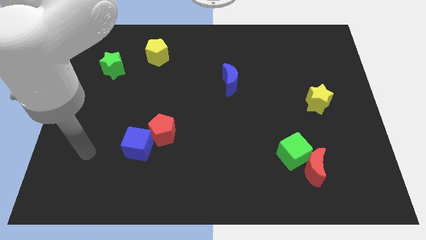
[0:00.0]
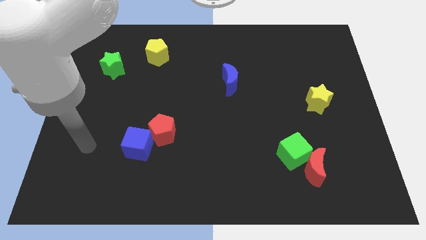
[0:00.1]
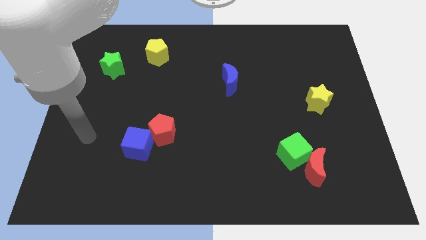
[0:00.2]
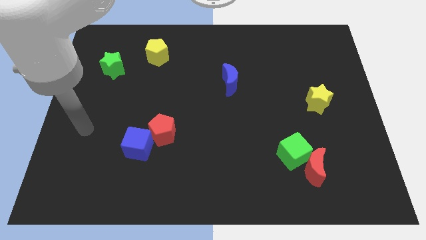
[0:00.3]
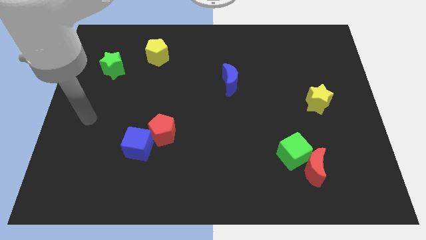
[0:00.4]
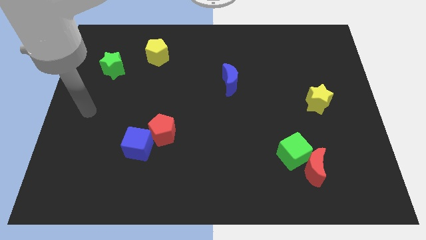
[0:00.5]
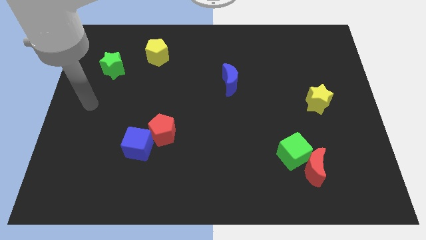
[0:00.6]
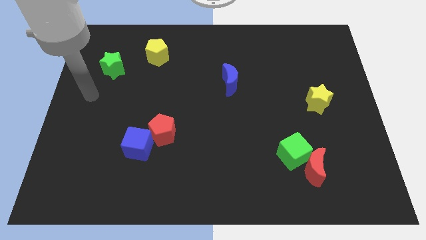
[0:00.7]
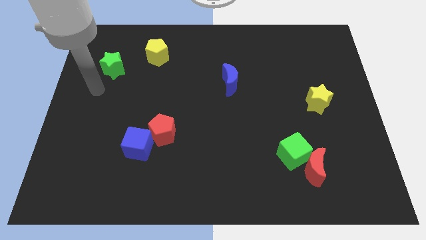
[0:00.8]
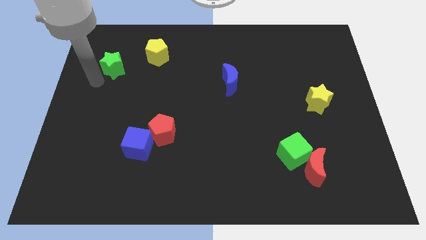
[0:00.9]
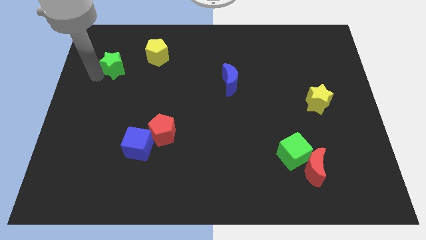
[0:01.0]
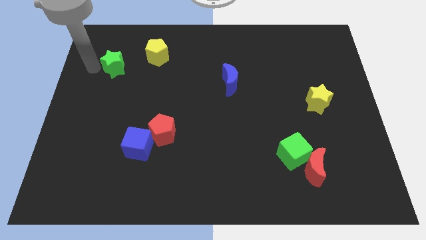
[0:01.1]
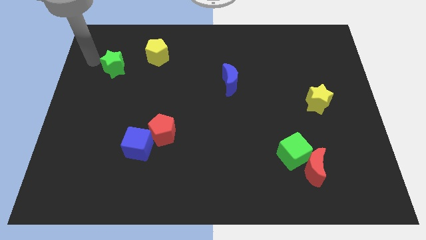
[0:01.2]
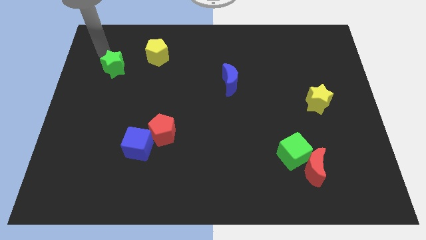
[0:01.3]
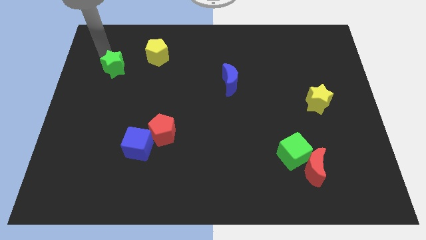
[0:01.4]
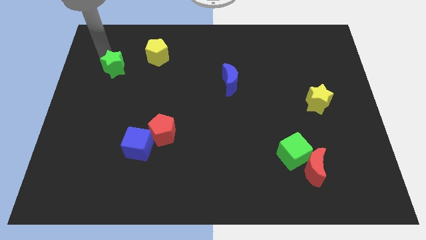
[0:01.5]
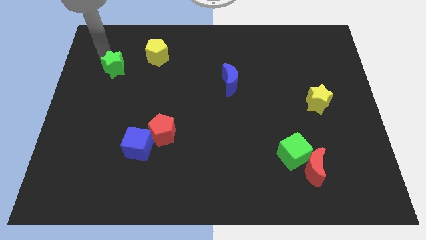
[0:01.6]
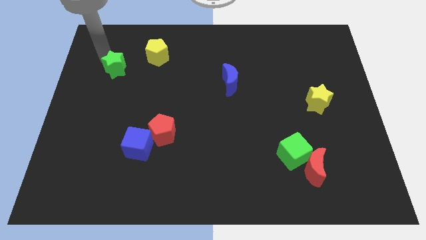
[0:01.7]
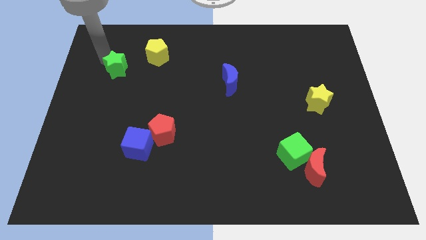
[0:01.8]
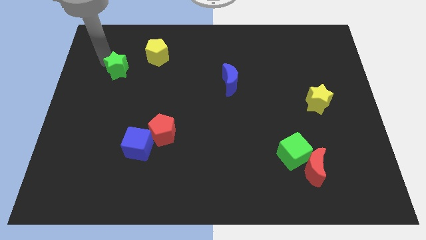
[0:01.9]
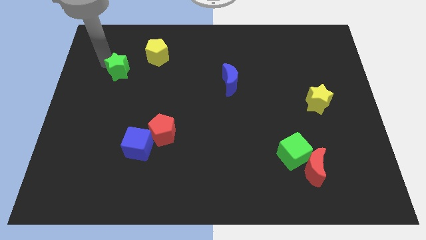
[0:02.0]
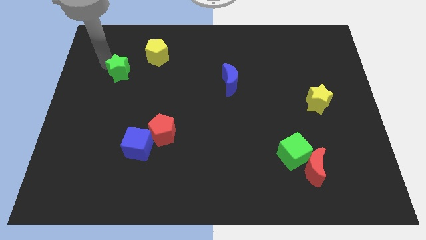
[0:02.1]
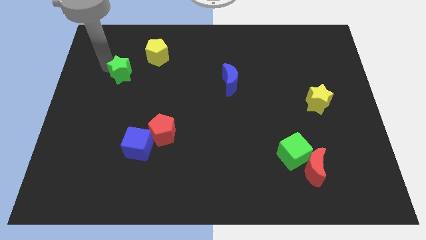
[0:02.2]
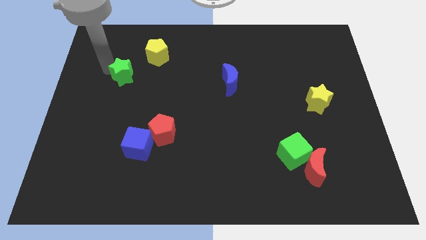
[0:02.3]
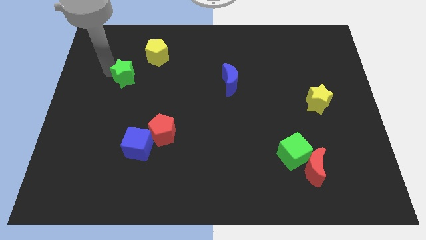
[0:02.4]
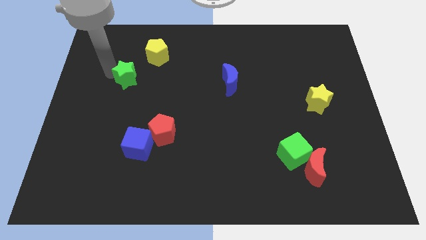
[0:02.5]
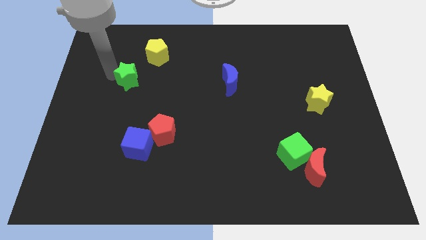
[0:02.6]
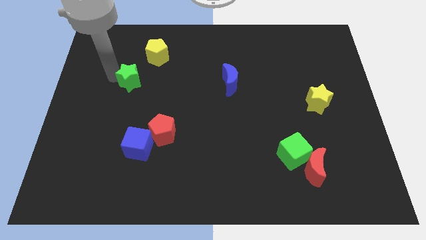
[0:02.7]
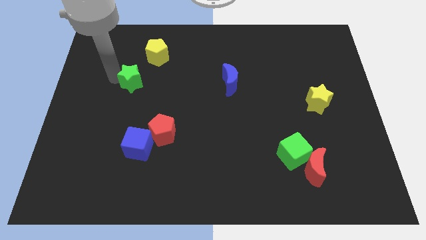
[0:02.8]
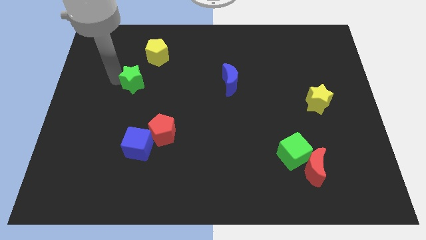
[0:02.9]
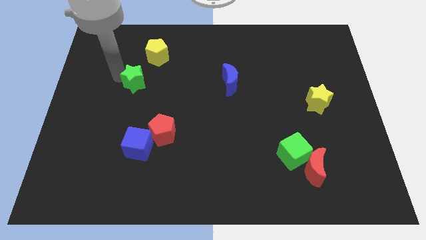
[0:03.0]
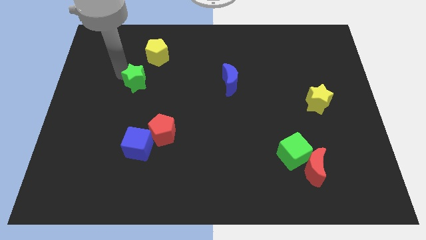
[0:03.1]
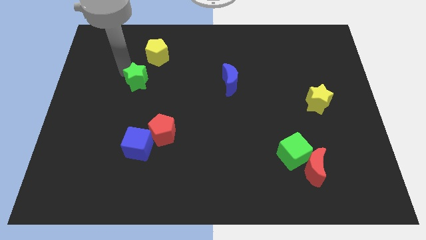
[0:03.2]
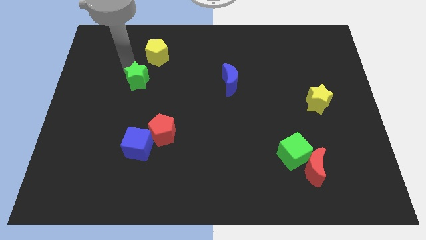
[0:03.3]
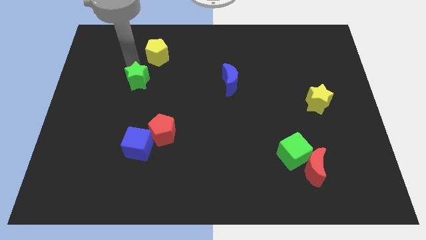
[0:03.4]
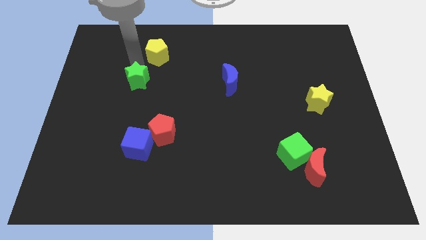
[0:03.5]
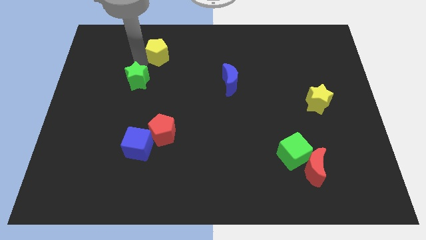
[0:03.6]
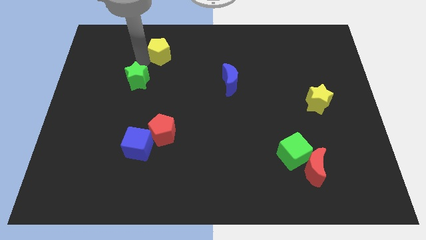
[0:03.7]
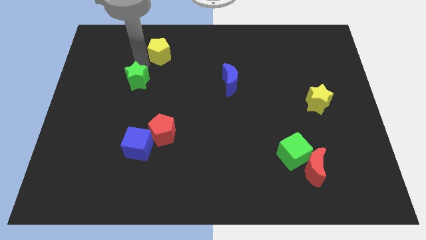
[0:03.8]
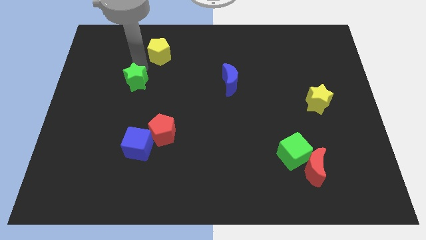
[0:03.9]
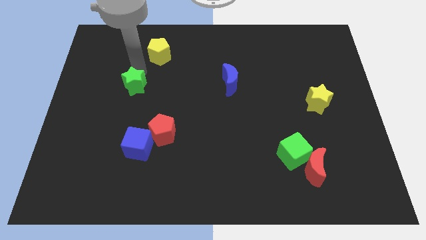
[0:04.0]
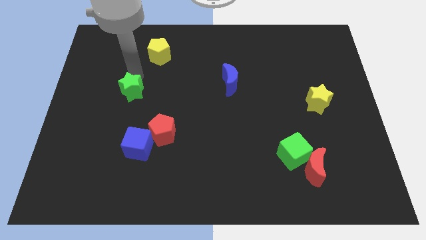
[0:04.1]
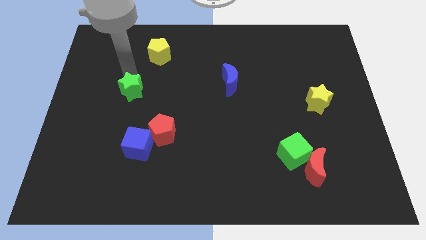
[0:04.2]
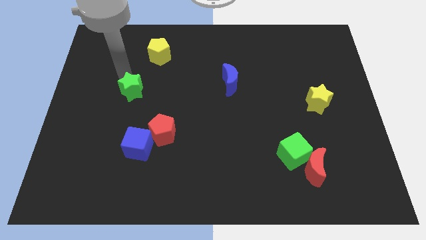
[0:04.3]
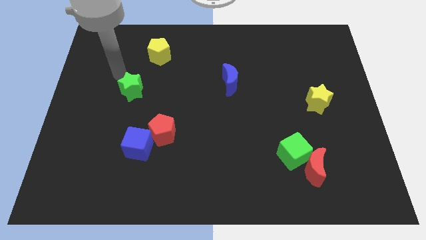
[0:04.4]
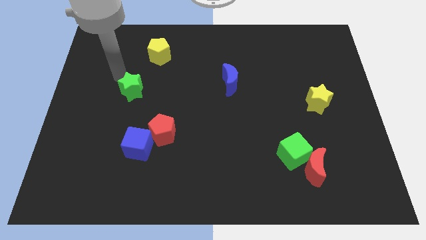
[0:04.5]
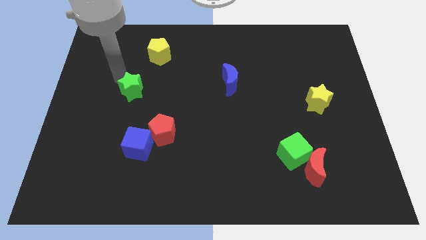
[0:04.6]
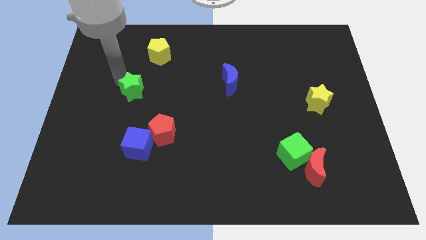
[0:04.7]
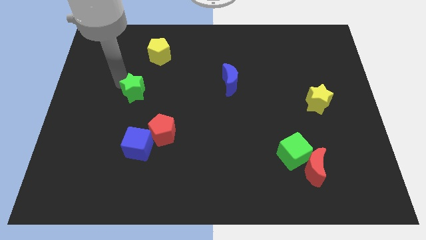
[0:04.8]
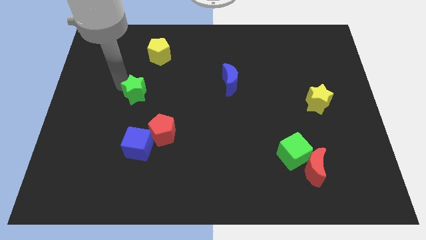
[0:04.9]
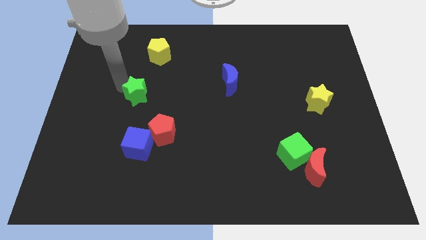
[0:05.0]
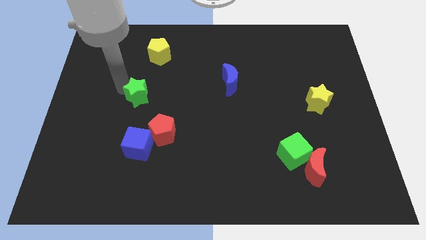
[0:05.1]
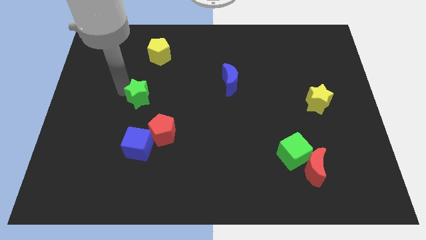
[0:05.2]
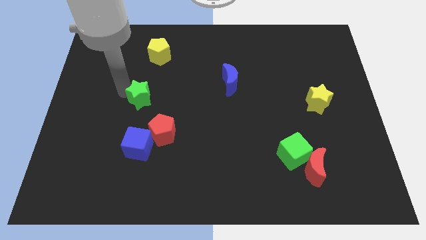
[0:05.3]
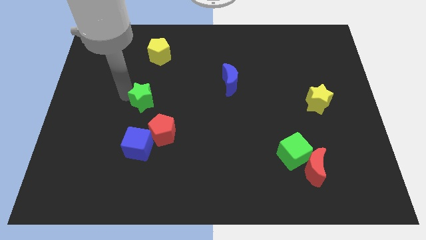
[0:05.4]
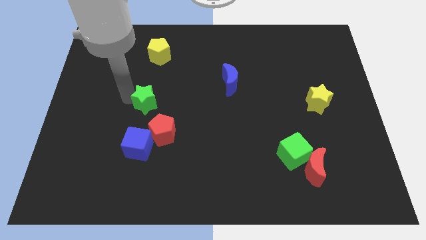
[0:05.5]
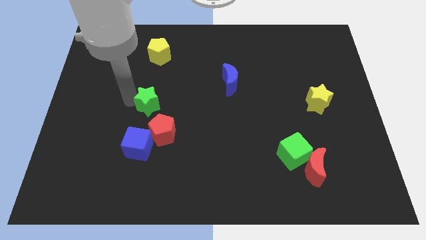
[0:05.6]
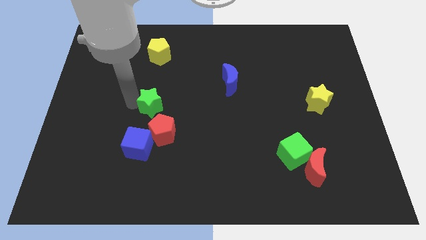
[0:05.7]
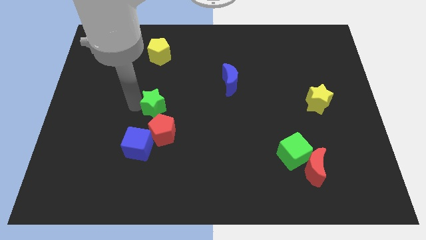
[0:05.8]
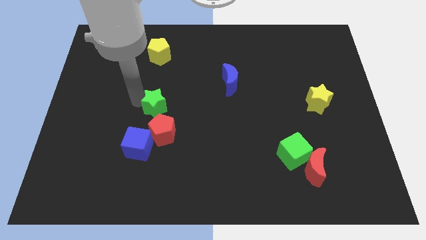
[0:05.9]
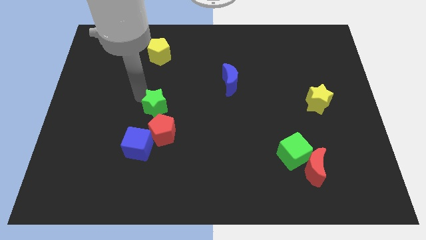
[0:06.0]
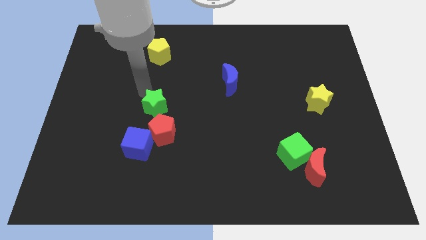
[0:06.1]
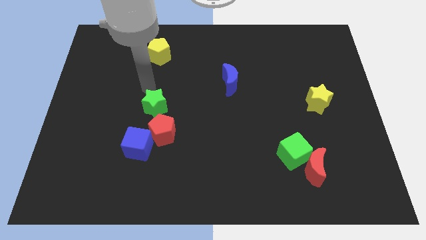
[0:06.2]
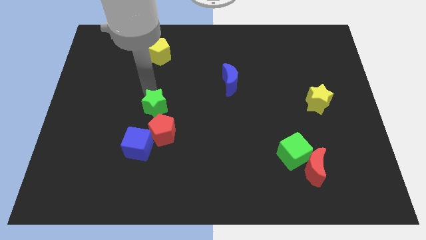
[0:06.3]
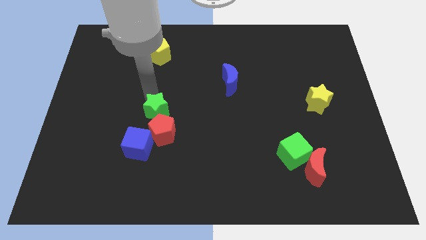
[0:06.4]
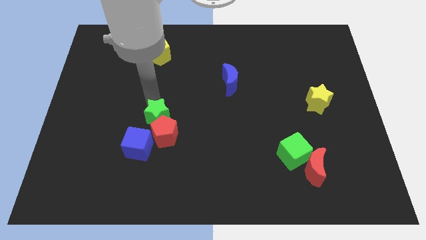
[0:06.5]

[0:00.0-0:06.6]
put the green star next to the red pentagon

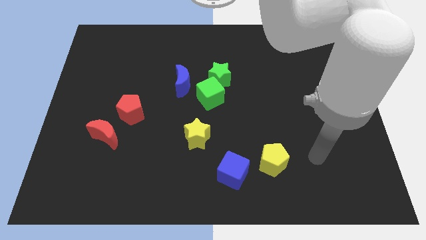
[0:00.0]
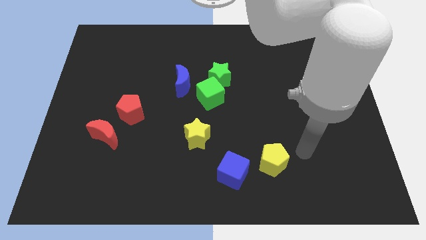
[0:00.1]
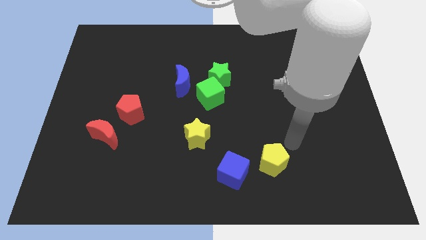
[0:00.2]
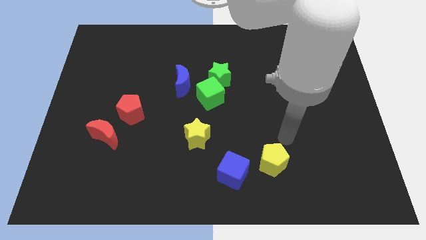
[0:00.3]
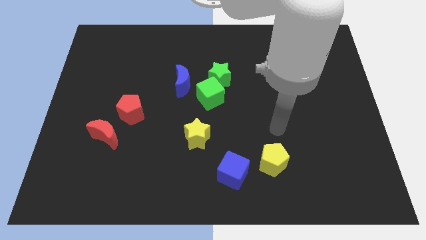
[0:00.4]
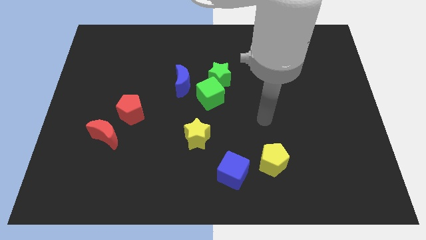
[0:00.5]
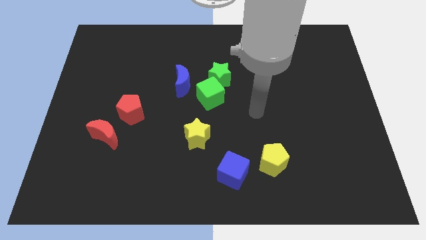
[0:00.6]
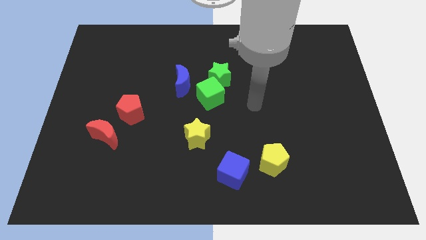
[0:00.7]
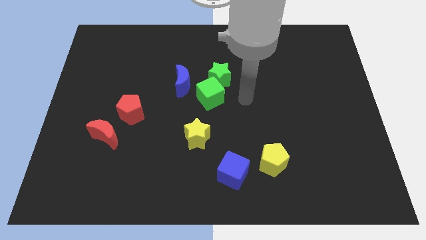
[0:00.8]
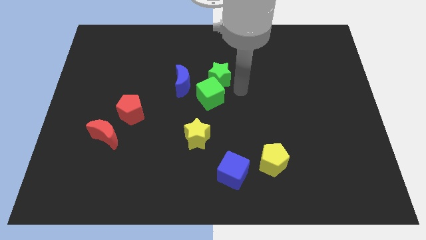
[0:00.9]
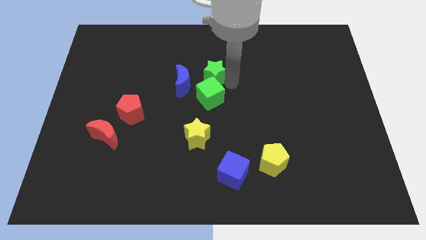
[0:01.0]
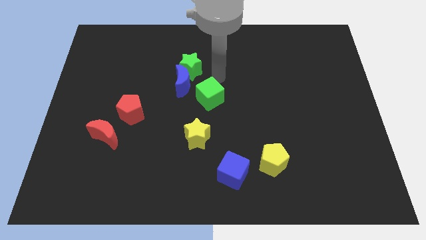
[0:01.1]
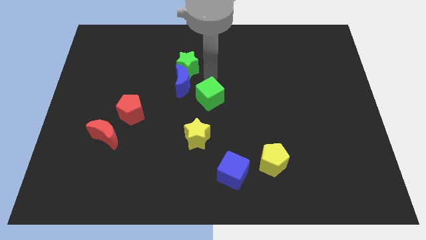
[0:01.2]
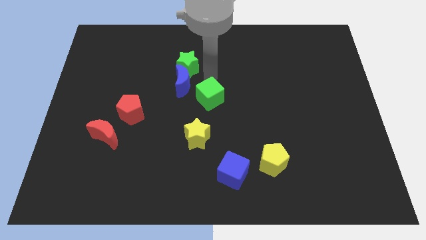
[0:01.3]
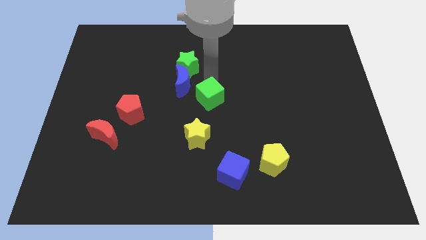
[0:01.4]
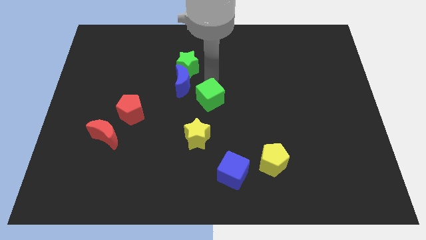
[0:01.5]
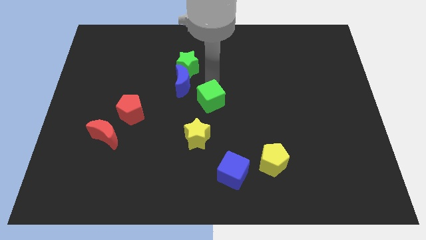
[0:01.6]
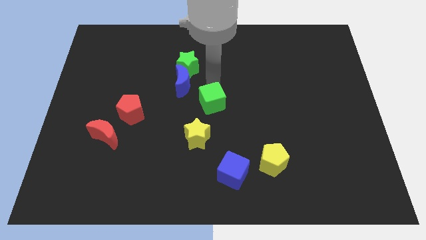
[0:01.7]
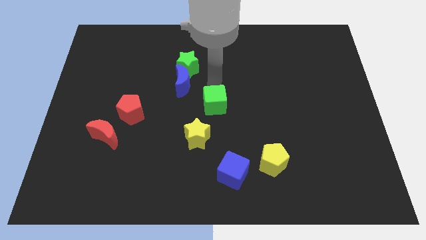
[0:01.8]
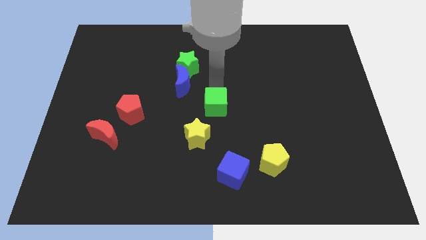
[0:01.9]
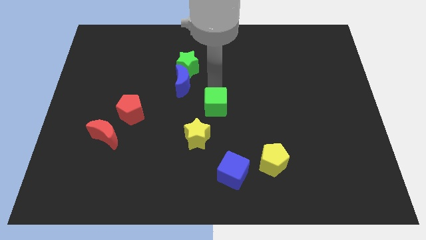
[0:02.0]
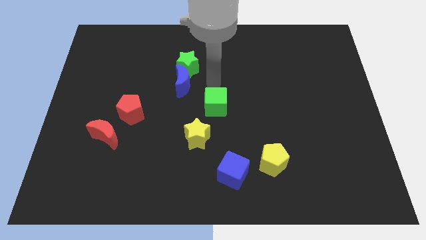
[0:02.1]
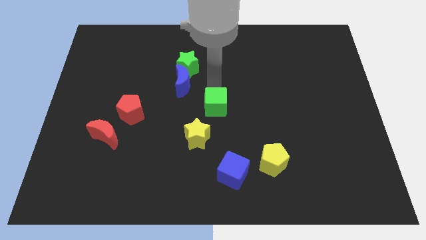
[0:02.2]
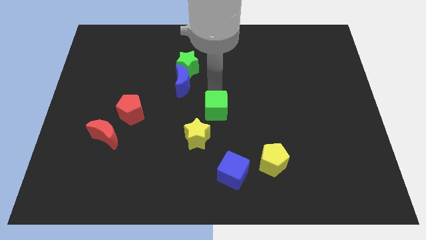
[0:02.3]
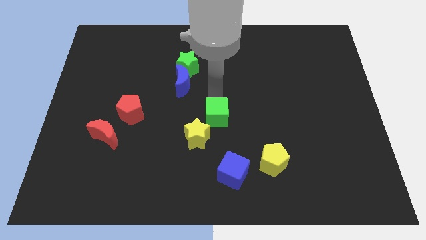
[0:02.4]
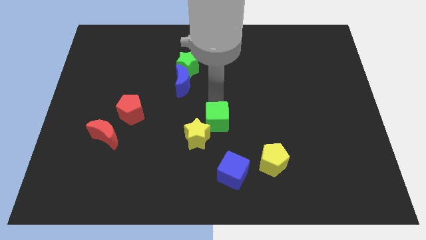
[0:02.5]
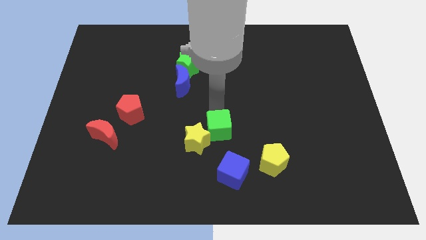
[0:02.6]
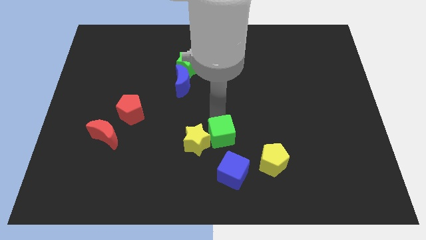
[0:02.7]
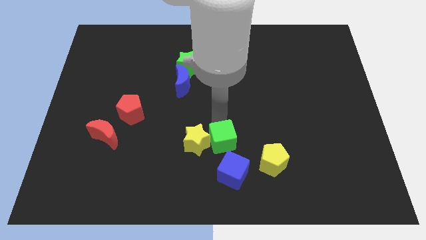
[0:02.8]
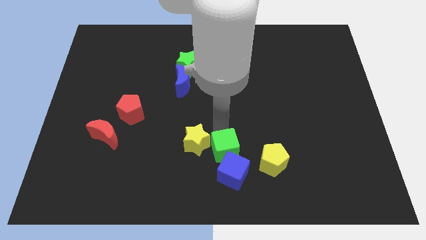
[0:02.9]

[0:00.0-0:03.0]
move the green cube towards the blue cube
